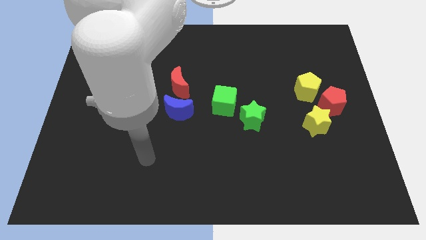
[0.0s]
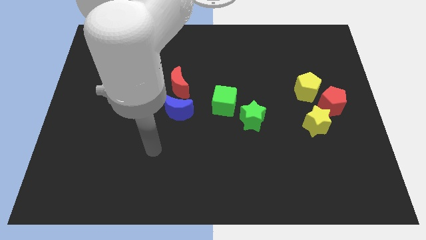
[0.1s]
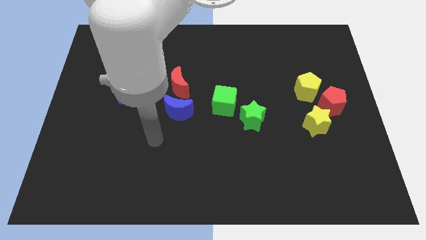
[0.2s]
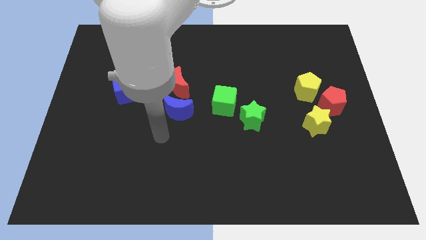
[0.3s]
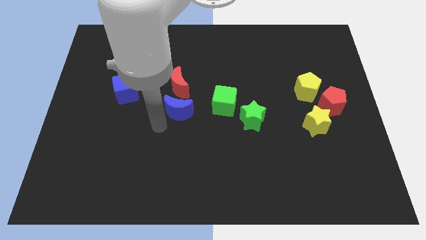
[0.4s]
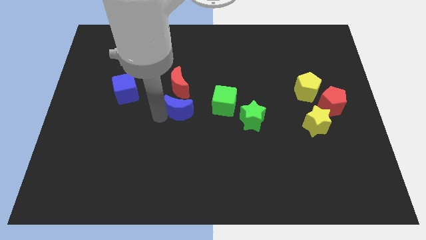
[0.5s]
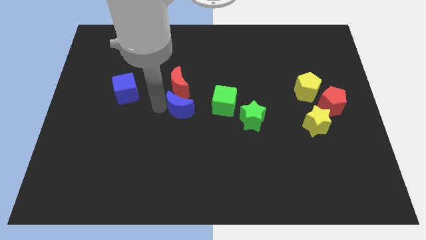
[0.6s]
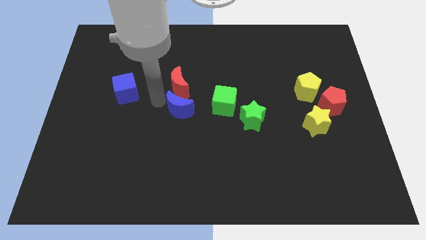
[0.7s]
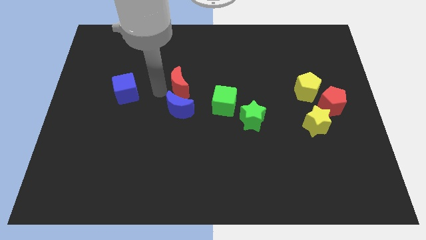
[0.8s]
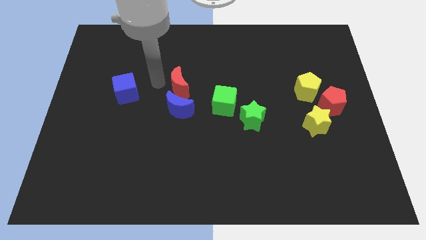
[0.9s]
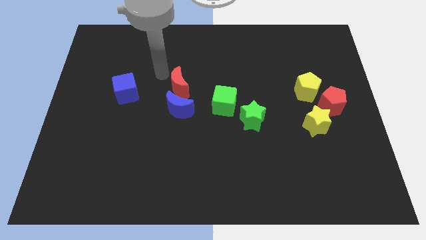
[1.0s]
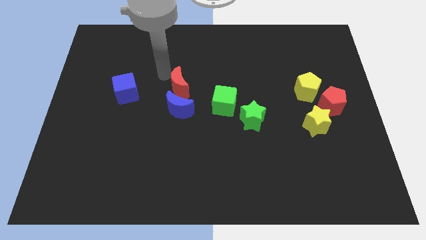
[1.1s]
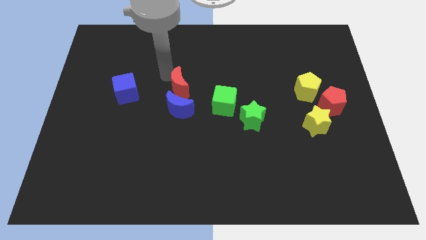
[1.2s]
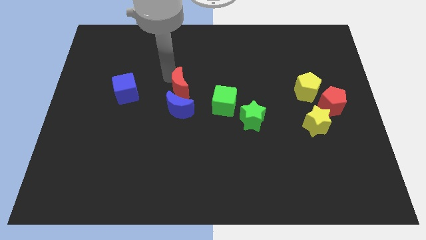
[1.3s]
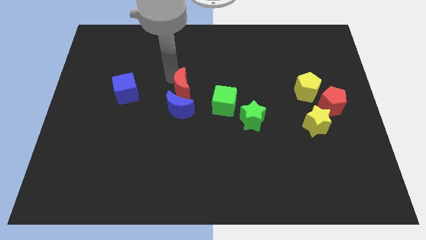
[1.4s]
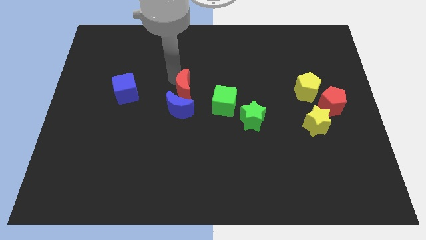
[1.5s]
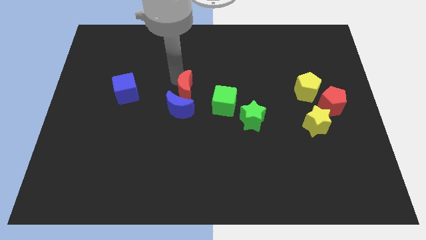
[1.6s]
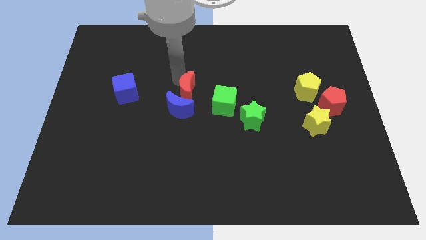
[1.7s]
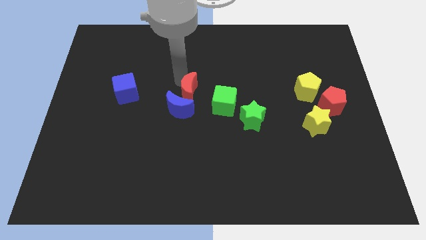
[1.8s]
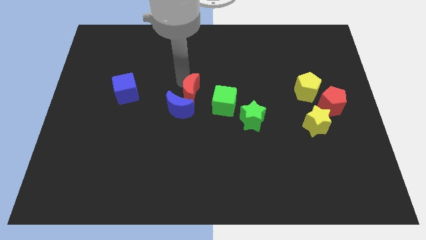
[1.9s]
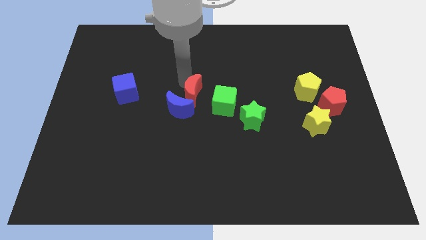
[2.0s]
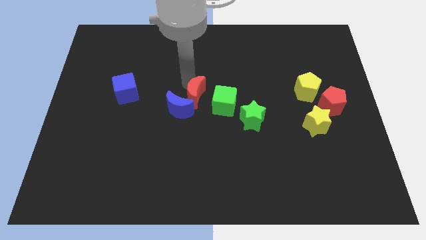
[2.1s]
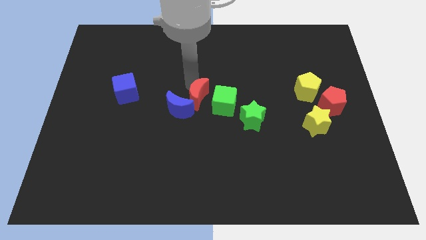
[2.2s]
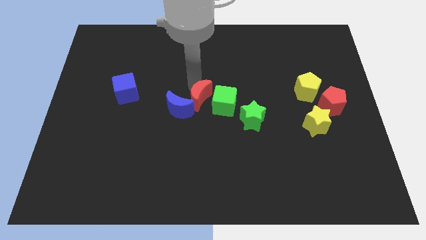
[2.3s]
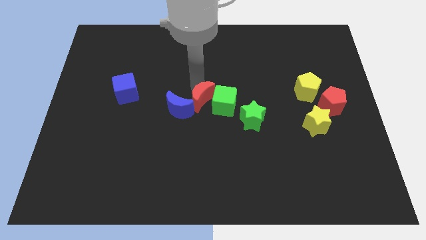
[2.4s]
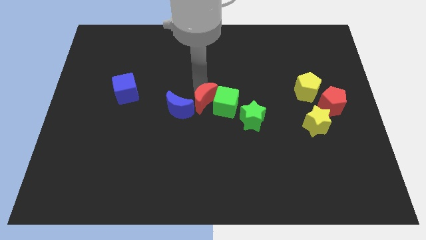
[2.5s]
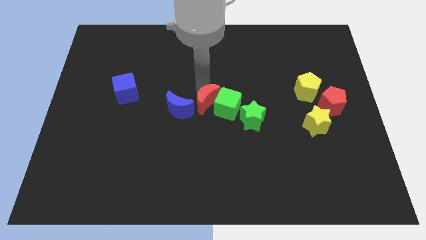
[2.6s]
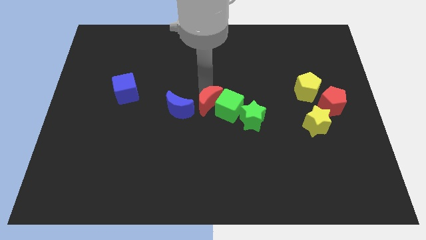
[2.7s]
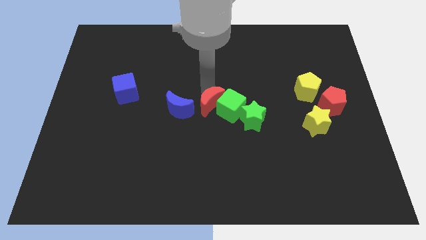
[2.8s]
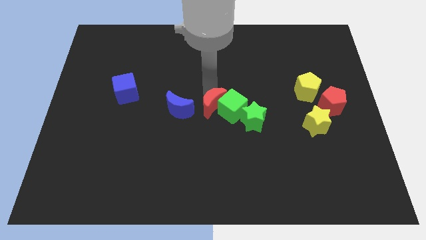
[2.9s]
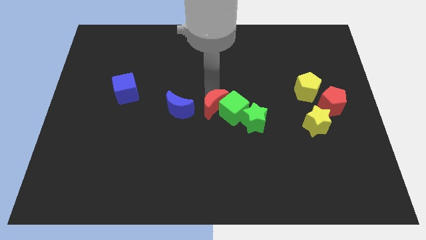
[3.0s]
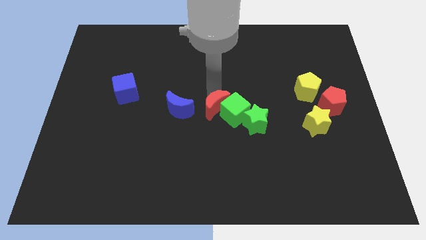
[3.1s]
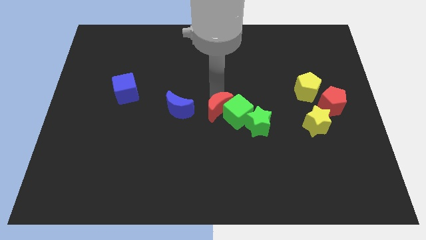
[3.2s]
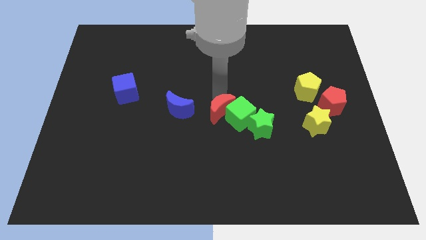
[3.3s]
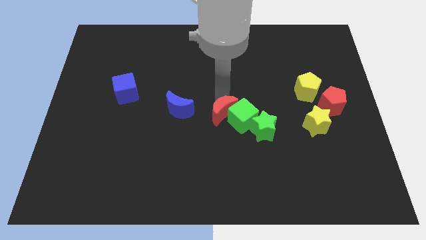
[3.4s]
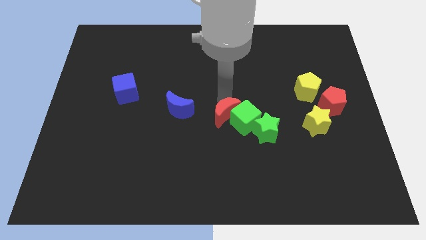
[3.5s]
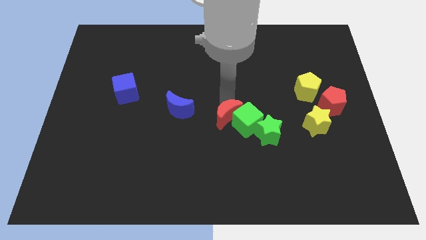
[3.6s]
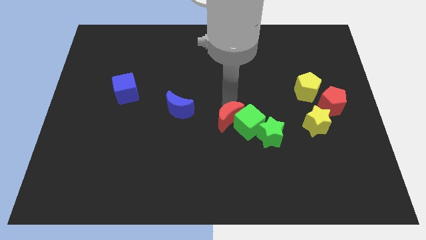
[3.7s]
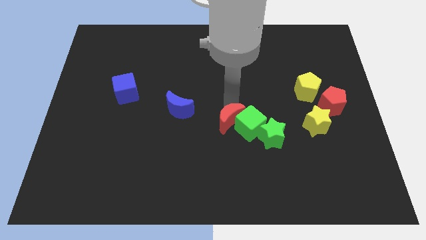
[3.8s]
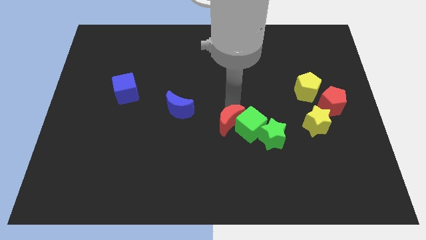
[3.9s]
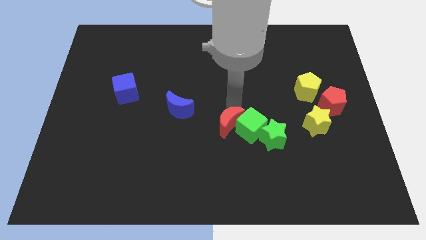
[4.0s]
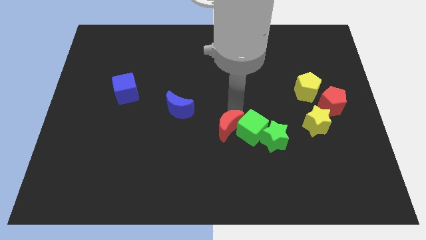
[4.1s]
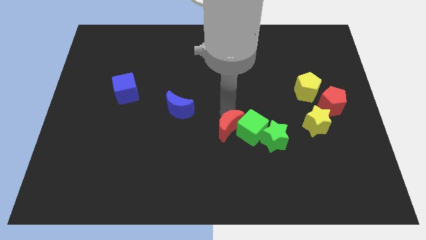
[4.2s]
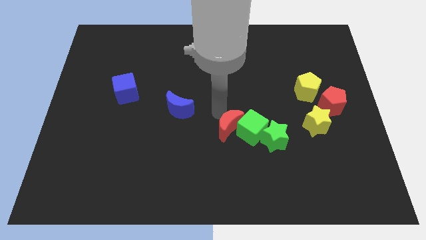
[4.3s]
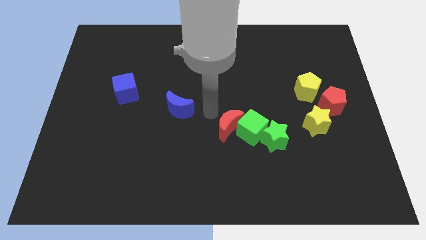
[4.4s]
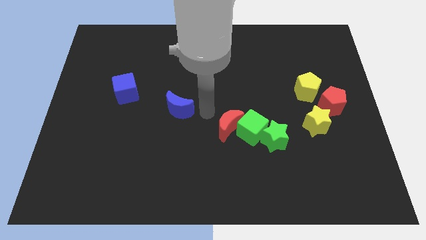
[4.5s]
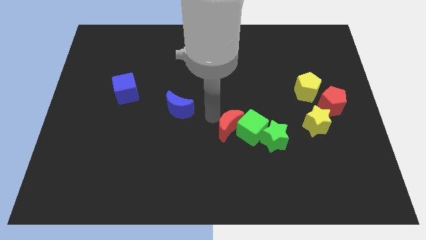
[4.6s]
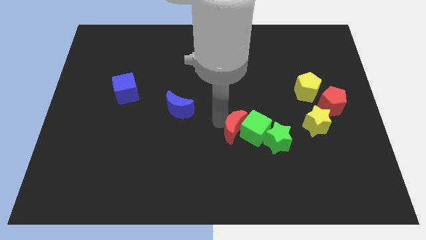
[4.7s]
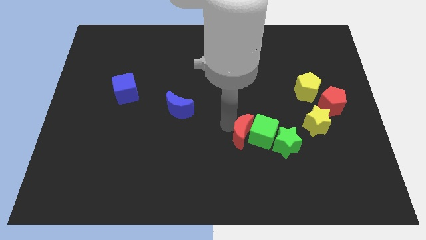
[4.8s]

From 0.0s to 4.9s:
move the red moon down and to the right

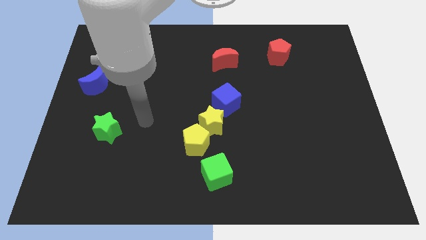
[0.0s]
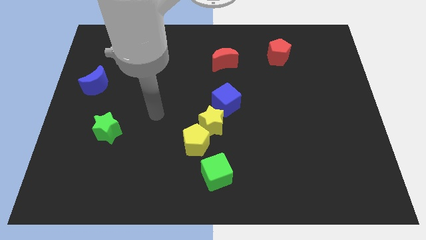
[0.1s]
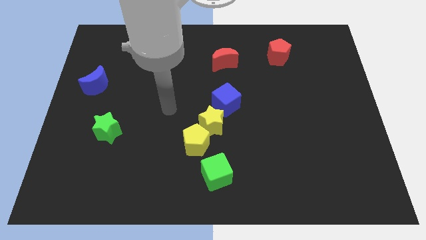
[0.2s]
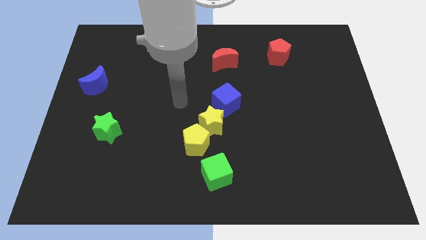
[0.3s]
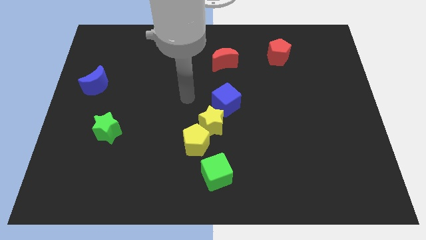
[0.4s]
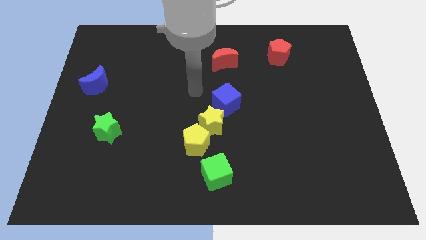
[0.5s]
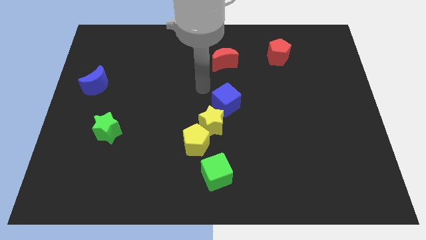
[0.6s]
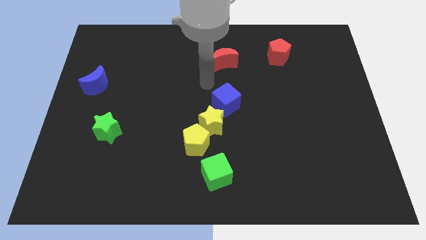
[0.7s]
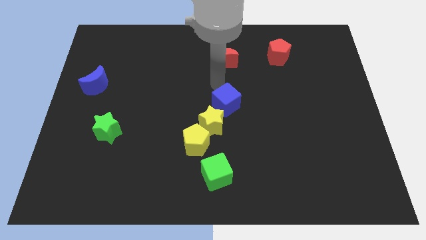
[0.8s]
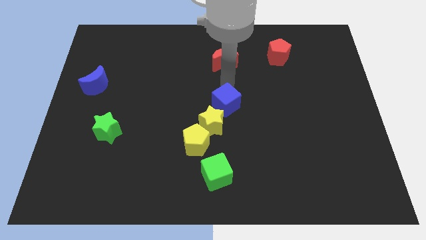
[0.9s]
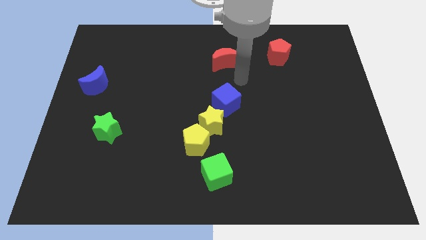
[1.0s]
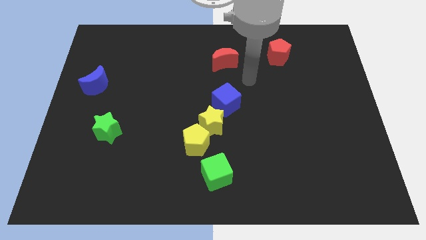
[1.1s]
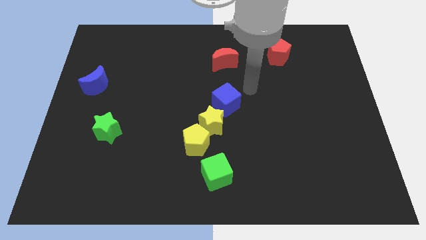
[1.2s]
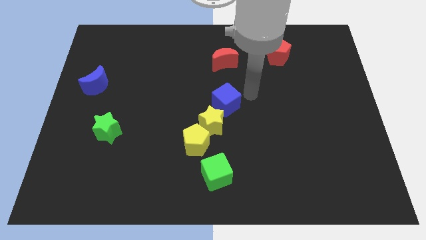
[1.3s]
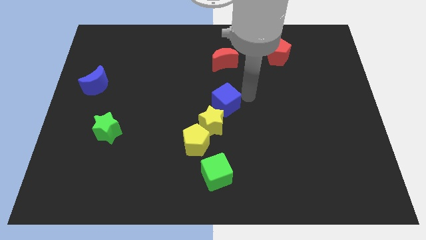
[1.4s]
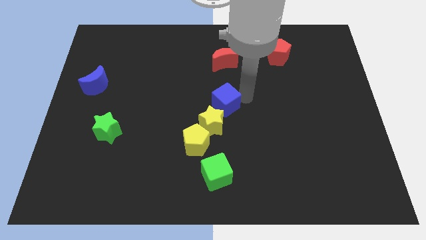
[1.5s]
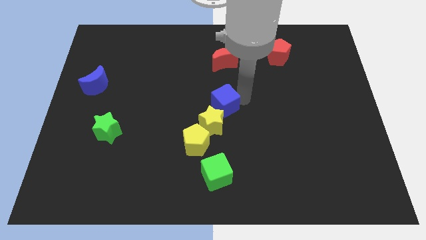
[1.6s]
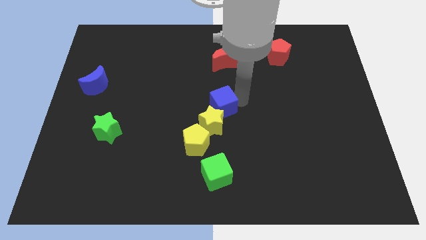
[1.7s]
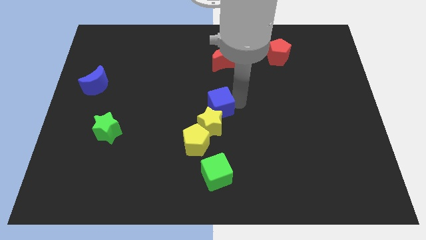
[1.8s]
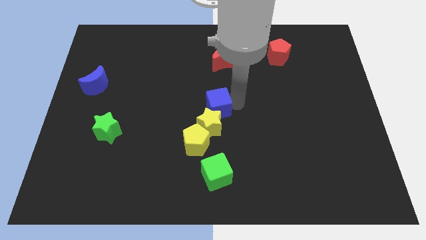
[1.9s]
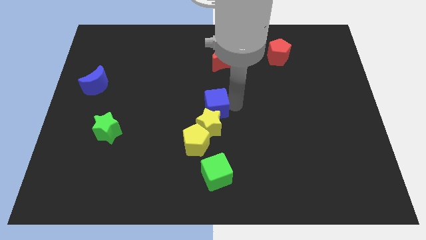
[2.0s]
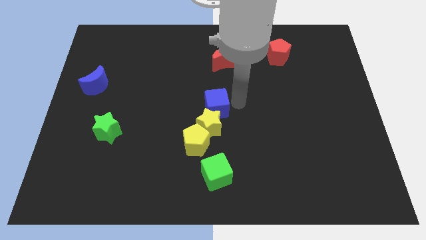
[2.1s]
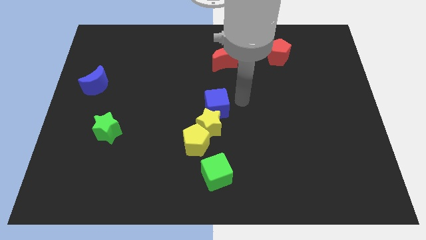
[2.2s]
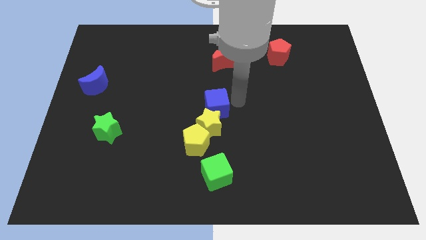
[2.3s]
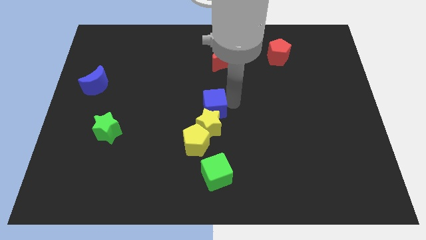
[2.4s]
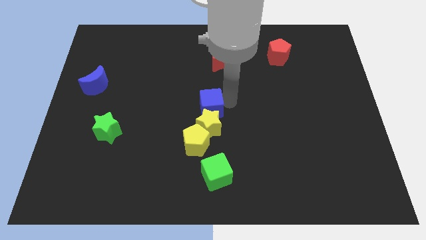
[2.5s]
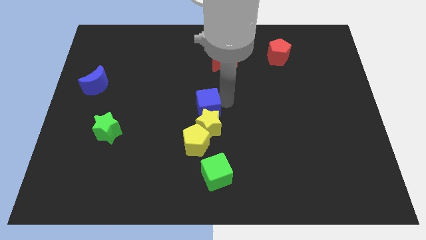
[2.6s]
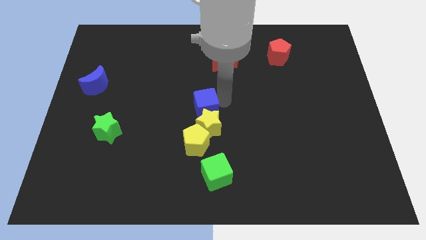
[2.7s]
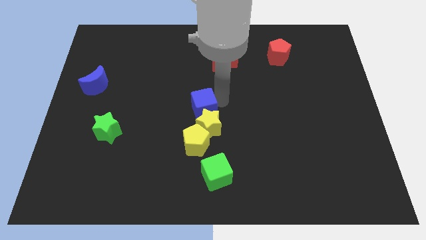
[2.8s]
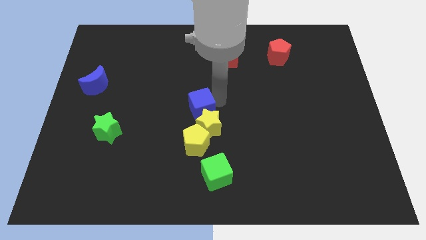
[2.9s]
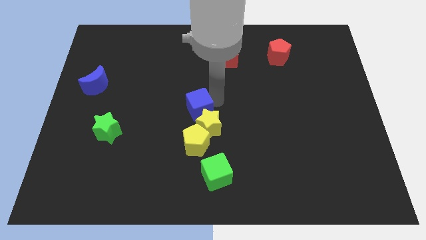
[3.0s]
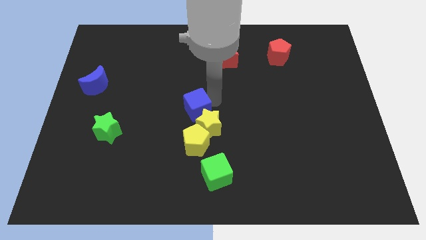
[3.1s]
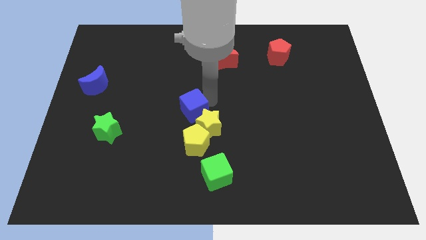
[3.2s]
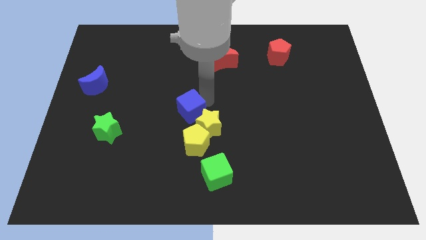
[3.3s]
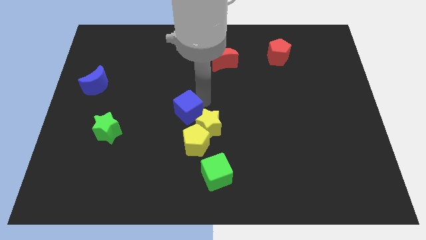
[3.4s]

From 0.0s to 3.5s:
move the blue cube somewhat downwards and then to the left
